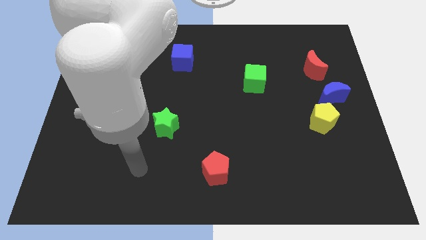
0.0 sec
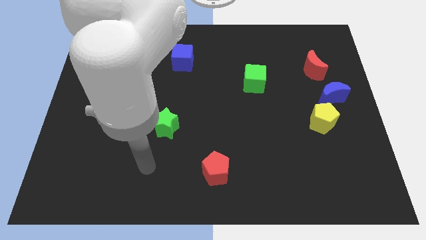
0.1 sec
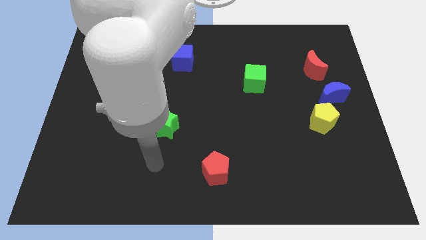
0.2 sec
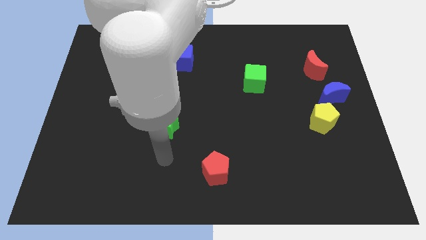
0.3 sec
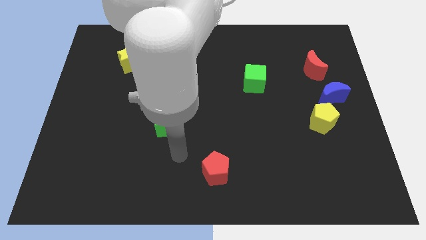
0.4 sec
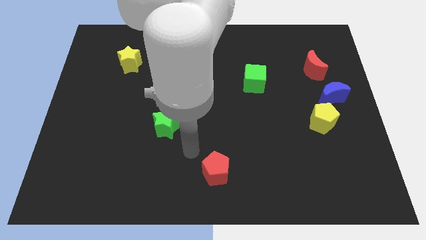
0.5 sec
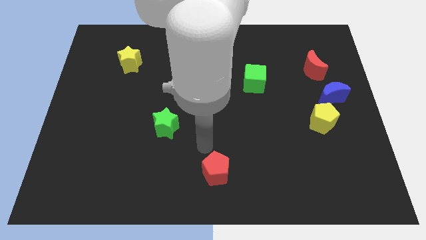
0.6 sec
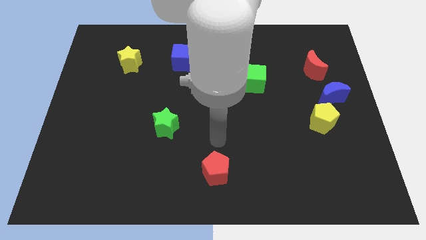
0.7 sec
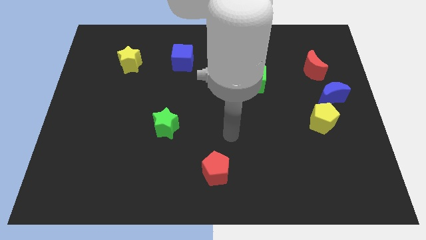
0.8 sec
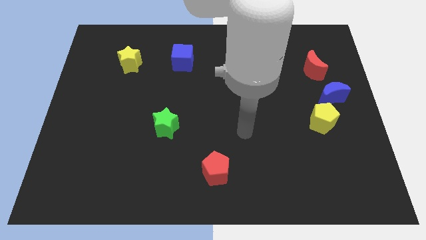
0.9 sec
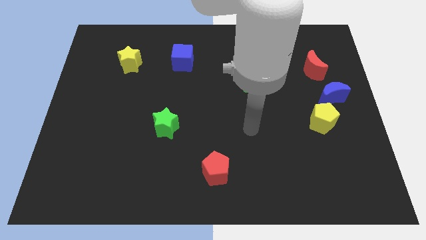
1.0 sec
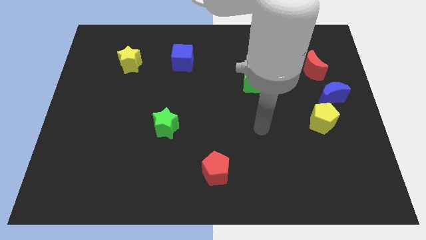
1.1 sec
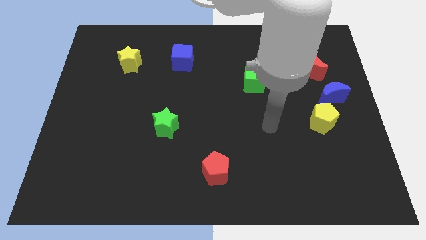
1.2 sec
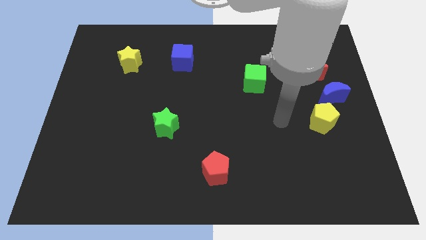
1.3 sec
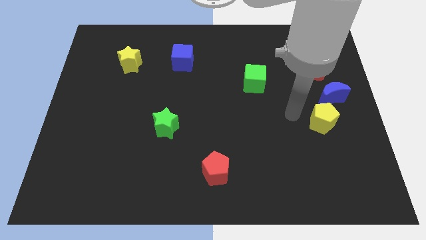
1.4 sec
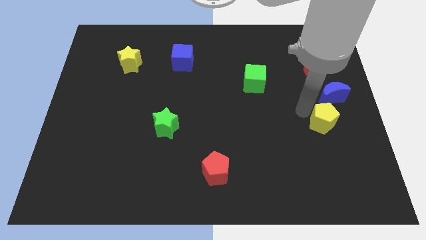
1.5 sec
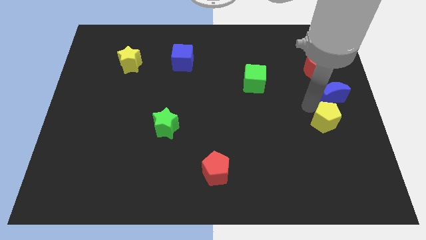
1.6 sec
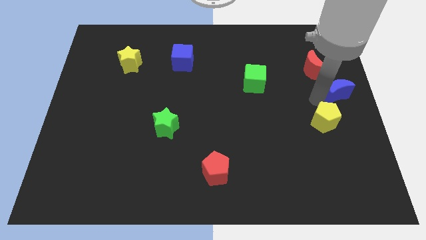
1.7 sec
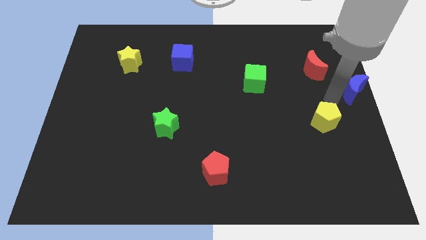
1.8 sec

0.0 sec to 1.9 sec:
move the yellow pentagon away from the blue moon

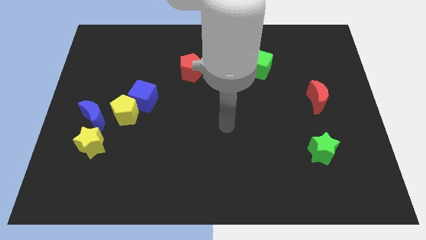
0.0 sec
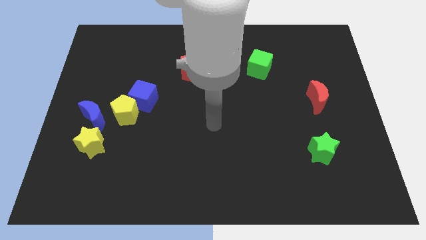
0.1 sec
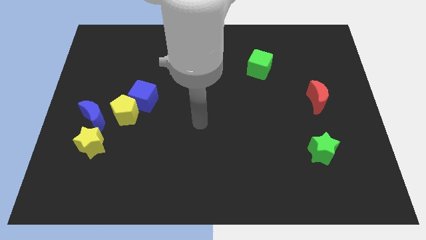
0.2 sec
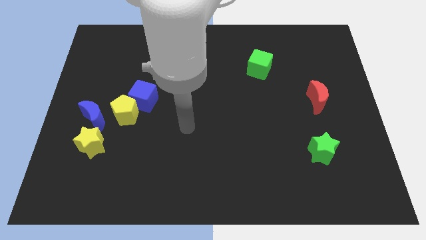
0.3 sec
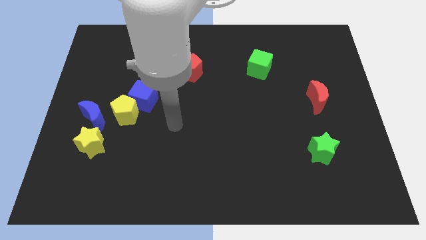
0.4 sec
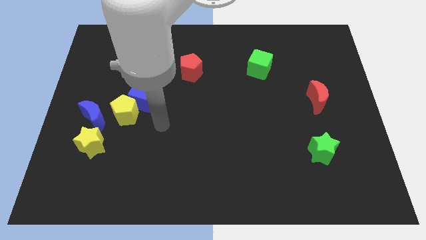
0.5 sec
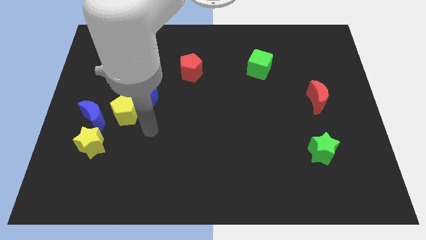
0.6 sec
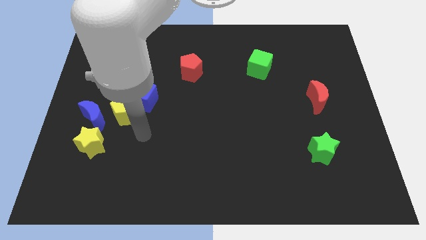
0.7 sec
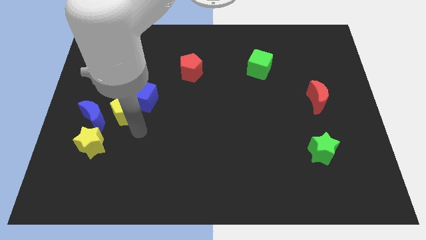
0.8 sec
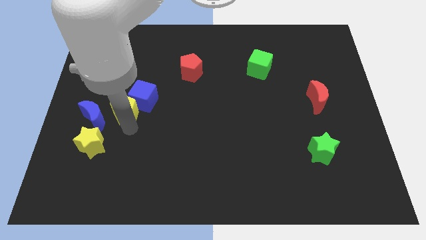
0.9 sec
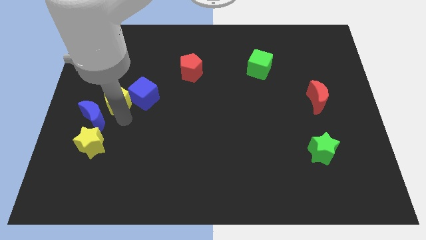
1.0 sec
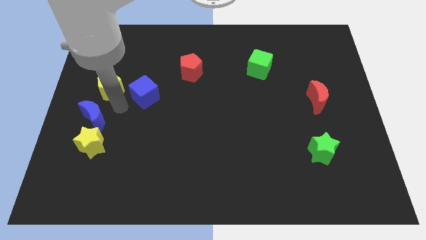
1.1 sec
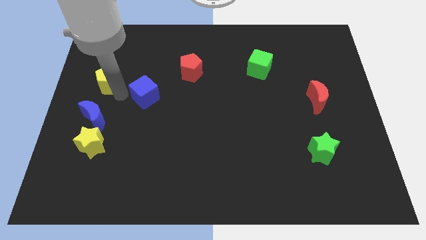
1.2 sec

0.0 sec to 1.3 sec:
pull the blue cube apart from the yellow pentagon

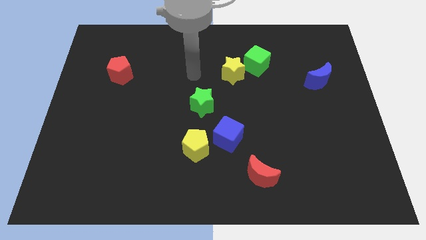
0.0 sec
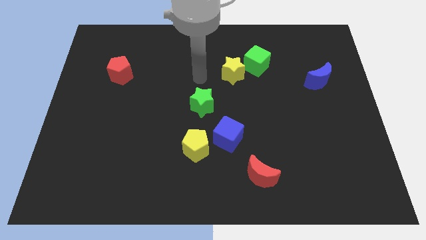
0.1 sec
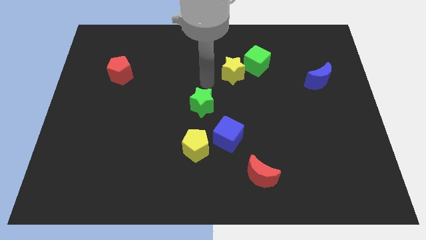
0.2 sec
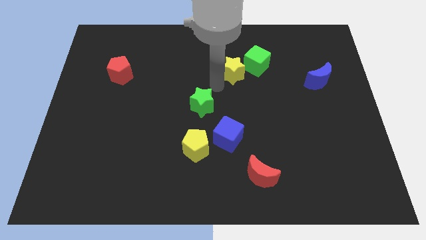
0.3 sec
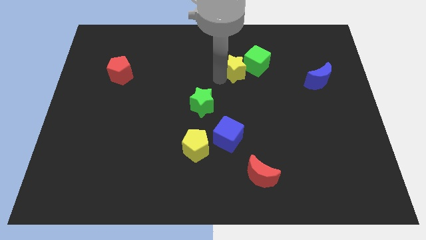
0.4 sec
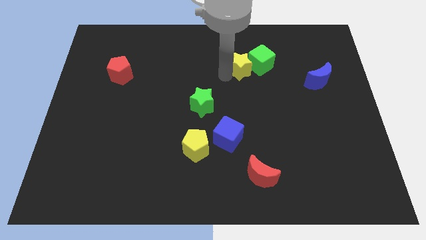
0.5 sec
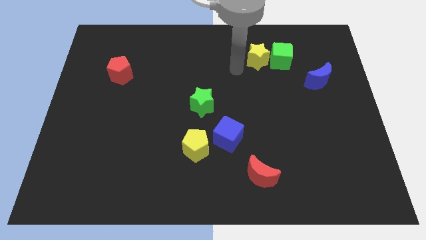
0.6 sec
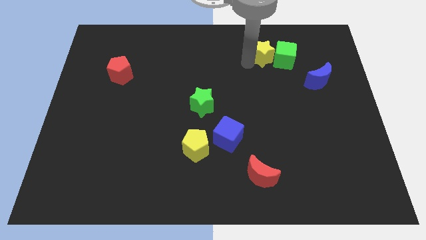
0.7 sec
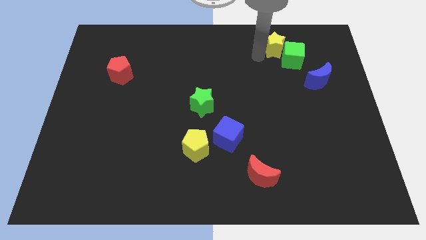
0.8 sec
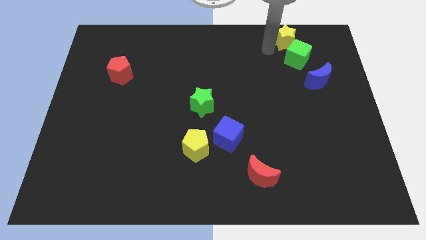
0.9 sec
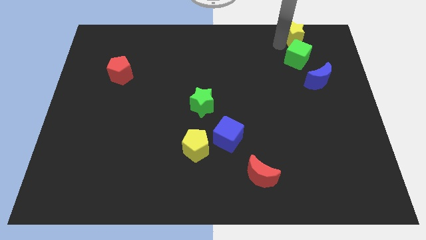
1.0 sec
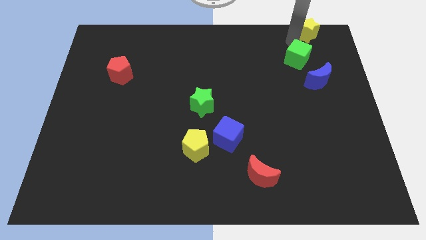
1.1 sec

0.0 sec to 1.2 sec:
separate the green cube from the yellow star

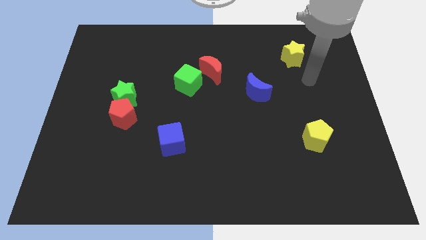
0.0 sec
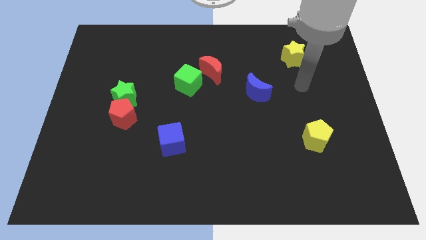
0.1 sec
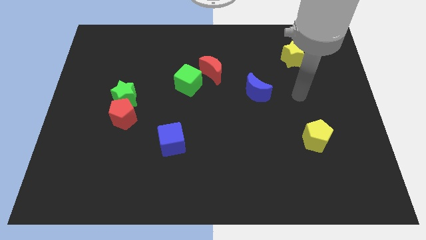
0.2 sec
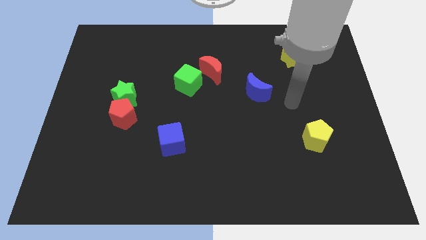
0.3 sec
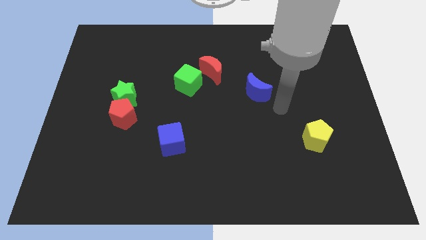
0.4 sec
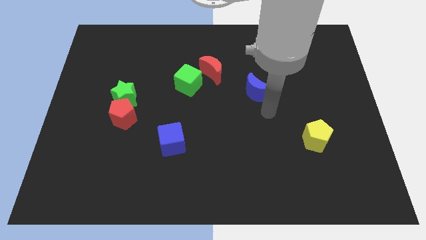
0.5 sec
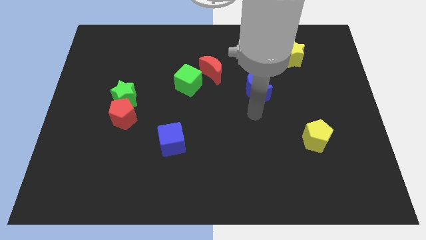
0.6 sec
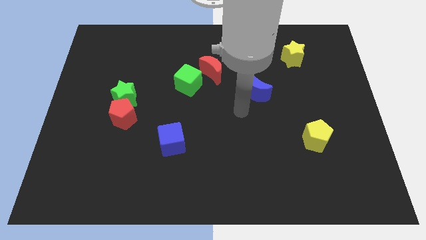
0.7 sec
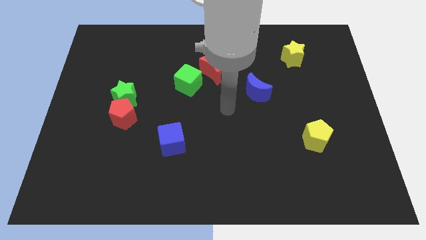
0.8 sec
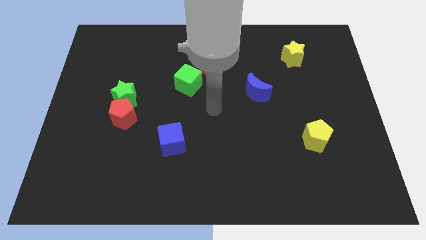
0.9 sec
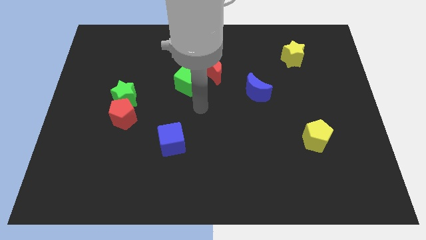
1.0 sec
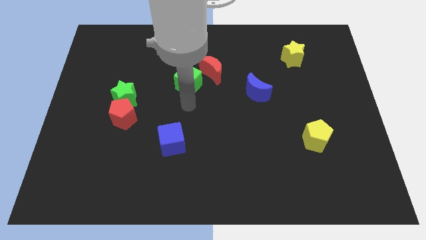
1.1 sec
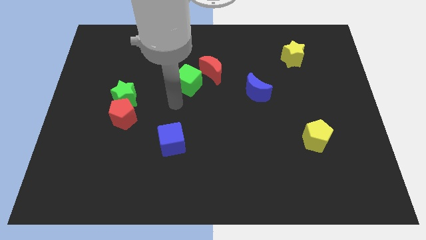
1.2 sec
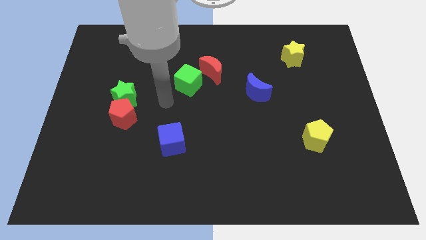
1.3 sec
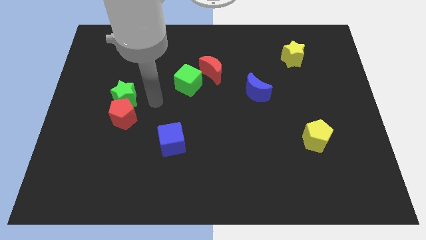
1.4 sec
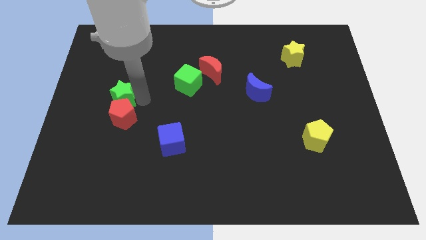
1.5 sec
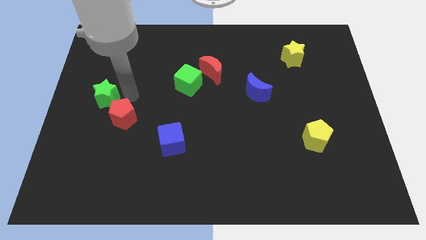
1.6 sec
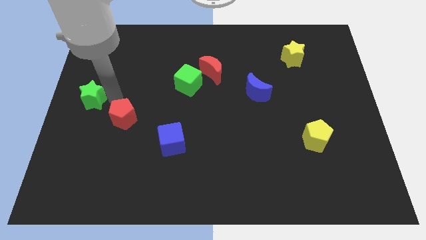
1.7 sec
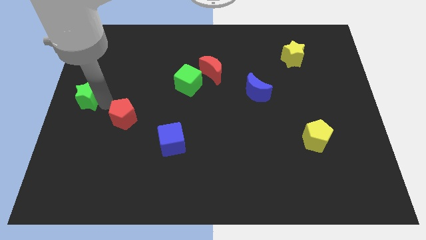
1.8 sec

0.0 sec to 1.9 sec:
separate the red pentagon from the green star

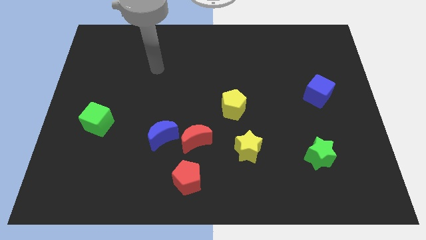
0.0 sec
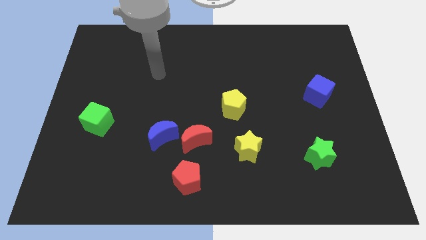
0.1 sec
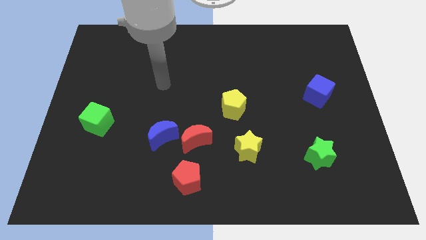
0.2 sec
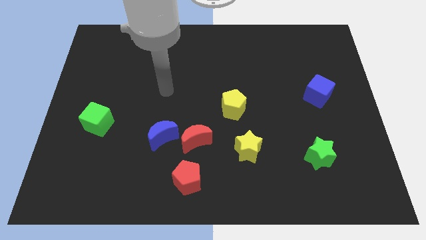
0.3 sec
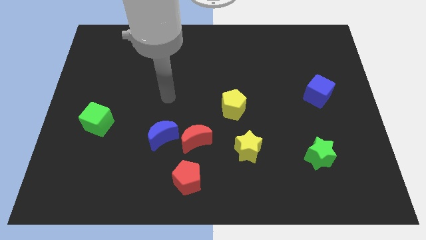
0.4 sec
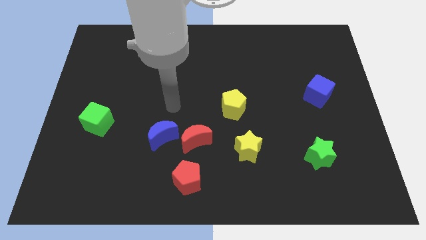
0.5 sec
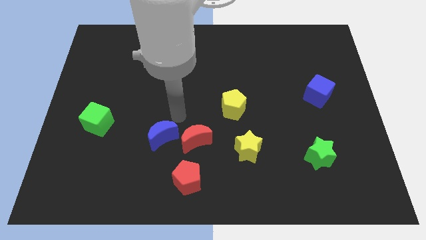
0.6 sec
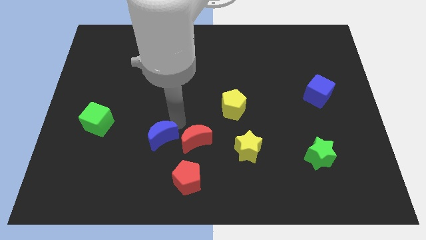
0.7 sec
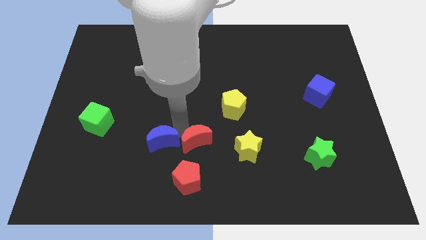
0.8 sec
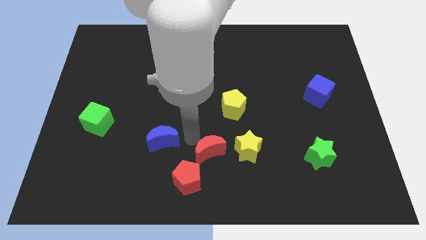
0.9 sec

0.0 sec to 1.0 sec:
separate the blue moon from the red moon

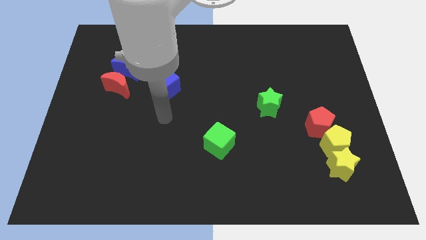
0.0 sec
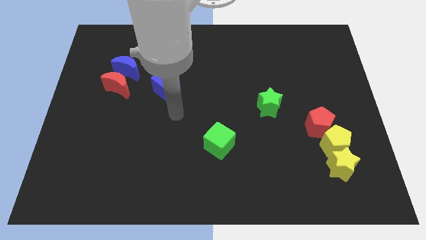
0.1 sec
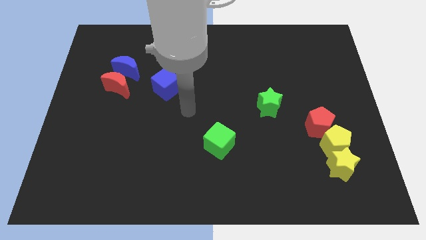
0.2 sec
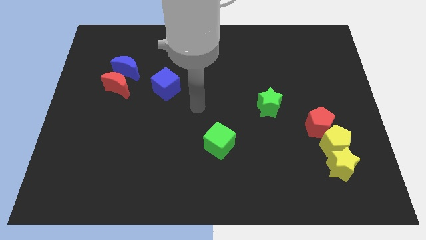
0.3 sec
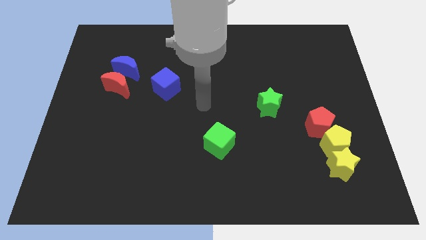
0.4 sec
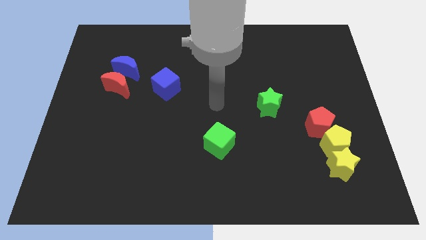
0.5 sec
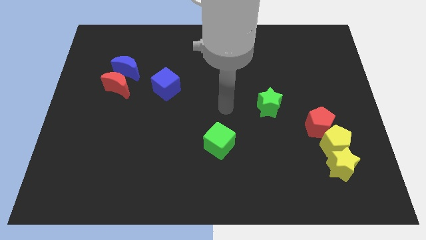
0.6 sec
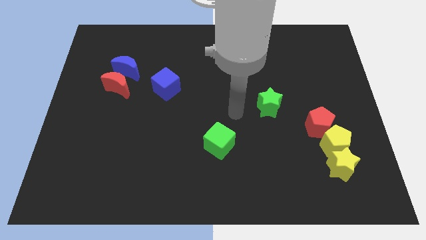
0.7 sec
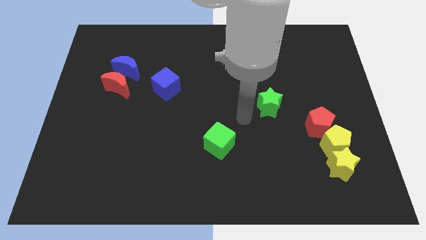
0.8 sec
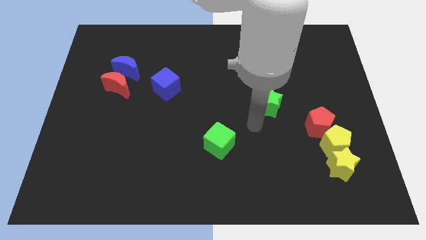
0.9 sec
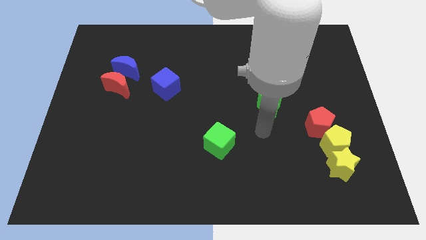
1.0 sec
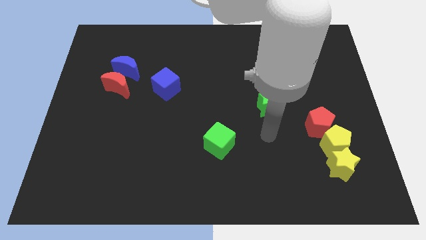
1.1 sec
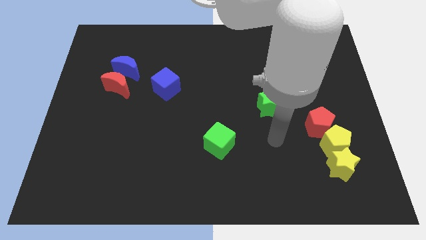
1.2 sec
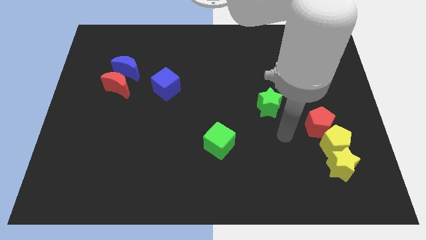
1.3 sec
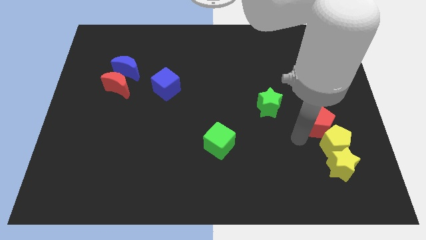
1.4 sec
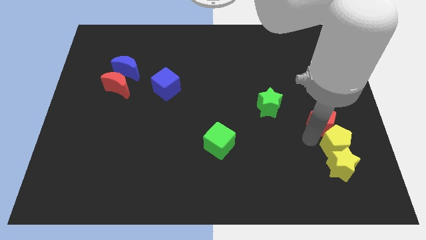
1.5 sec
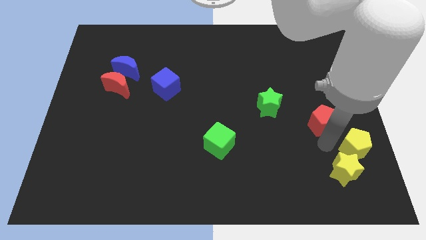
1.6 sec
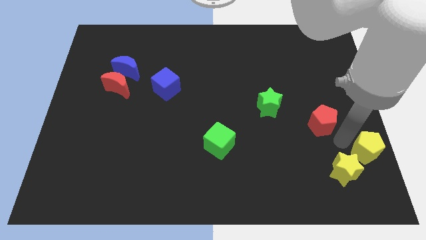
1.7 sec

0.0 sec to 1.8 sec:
pull the red pentagon apart from the yellow pentagon

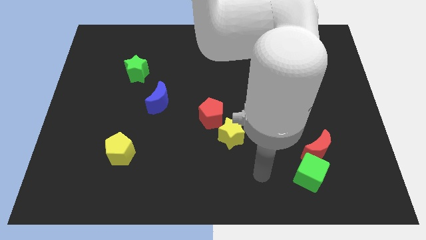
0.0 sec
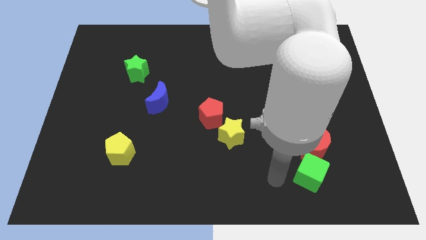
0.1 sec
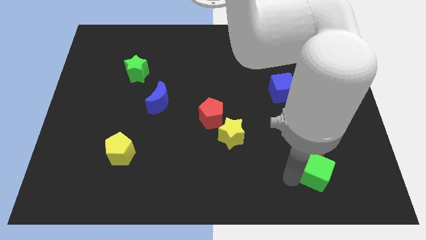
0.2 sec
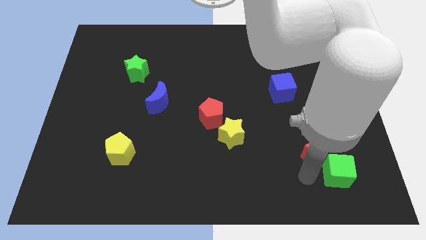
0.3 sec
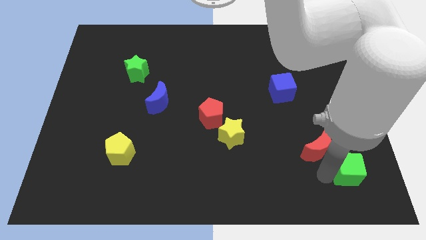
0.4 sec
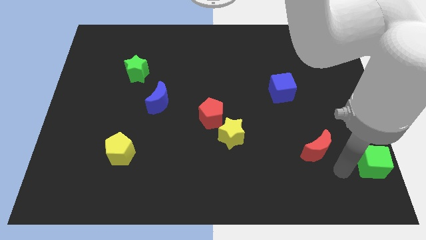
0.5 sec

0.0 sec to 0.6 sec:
pull the red moon apart from the green cube
